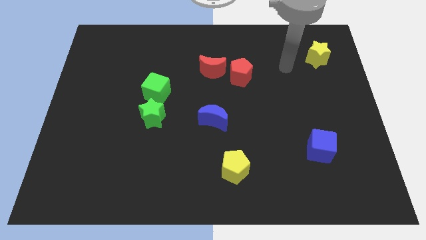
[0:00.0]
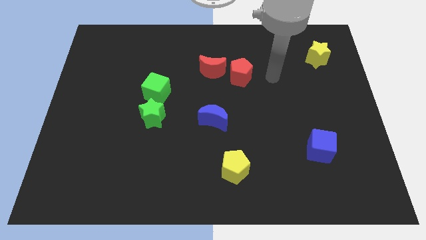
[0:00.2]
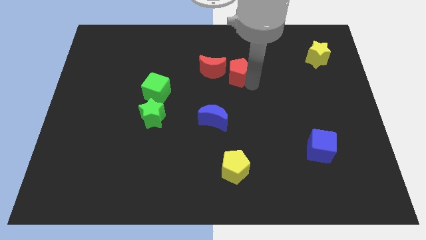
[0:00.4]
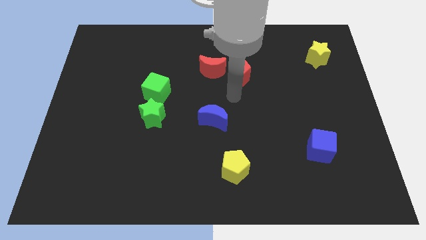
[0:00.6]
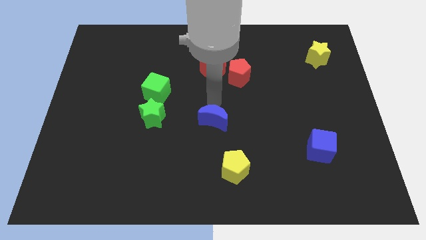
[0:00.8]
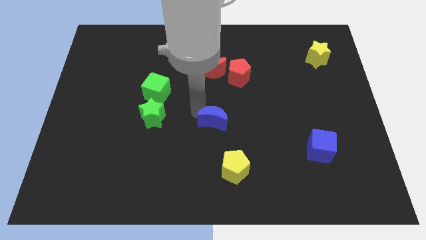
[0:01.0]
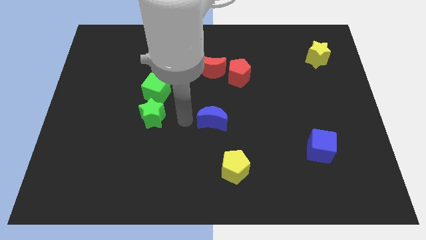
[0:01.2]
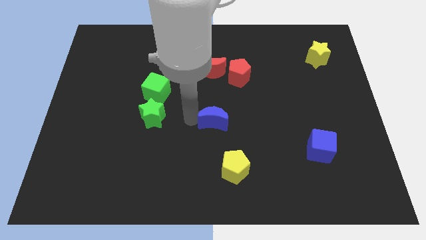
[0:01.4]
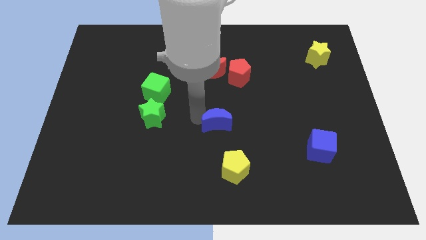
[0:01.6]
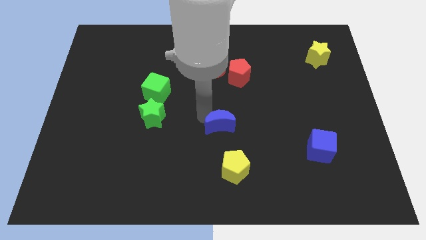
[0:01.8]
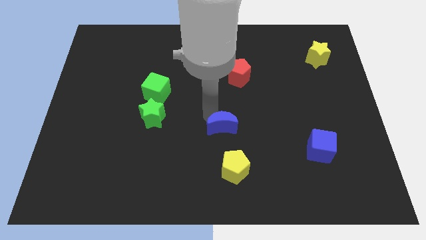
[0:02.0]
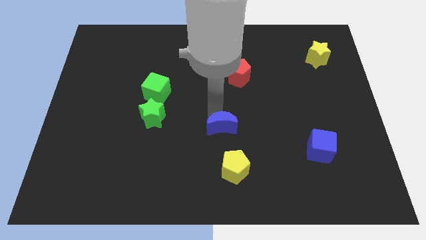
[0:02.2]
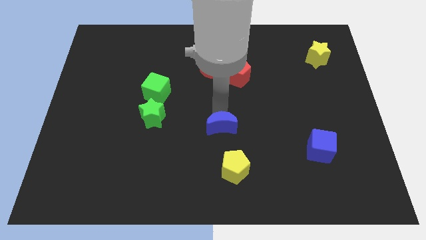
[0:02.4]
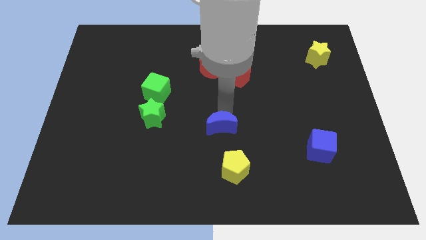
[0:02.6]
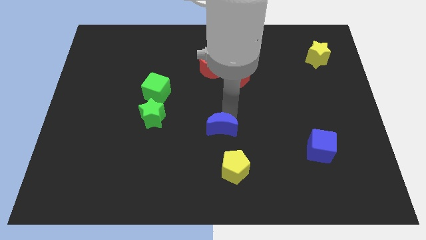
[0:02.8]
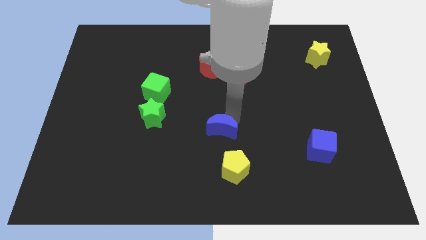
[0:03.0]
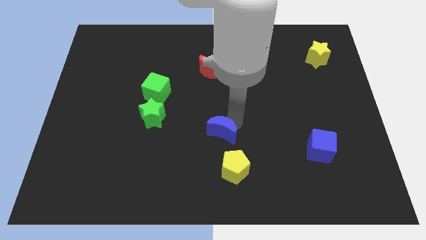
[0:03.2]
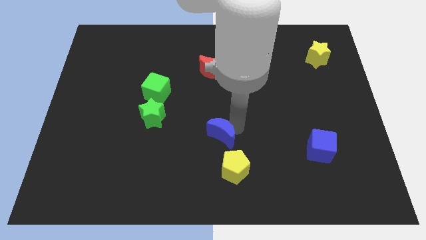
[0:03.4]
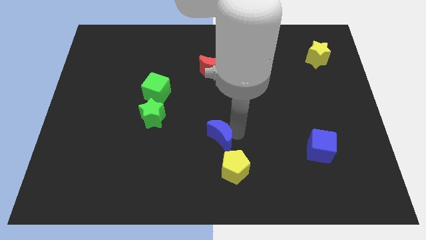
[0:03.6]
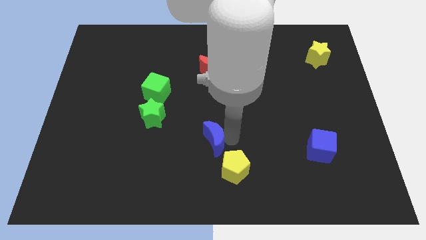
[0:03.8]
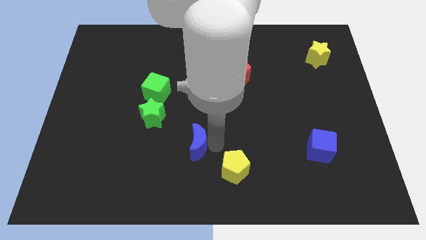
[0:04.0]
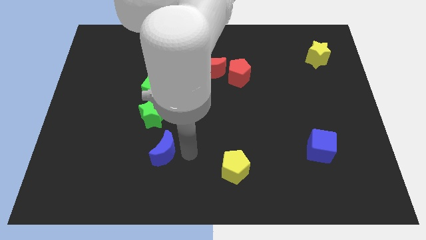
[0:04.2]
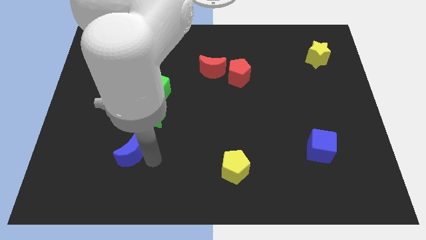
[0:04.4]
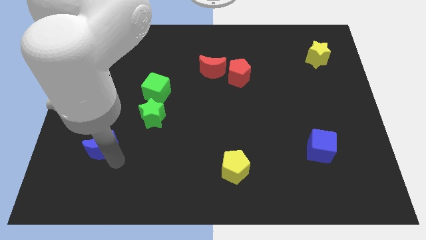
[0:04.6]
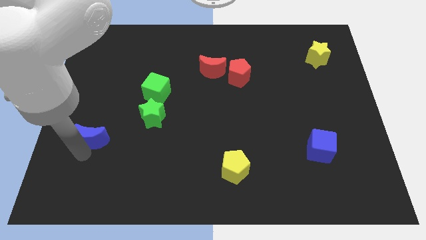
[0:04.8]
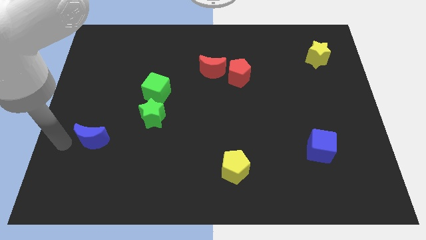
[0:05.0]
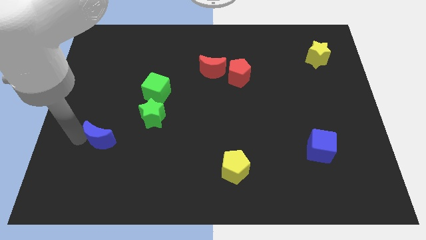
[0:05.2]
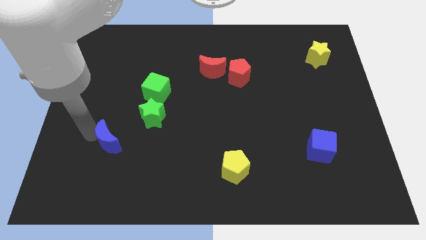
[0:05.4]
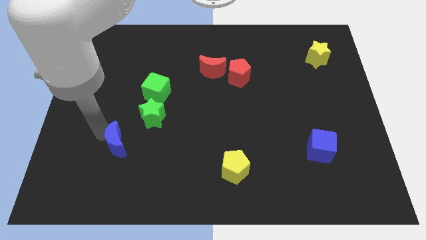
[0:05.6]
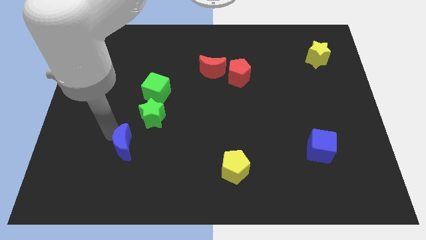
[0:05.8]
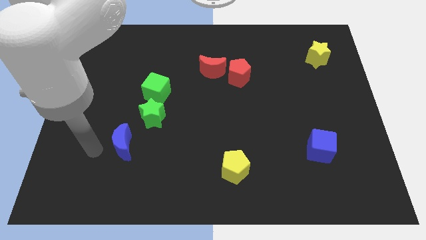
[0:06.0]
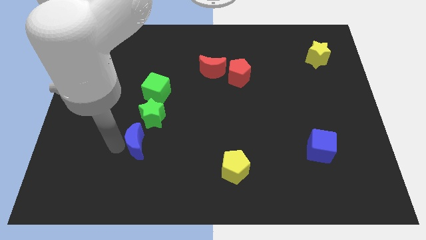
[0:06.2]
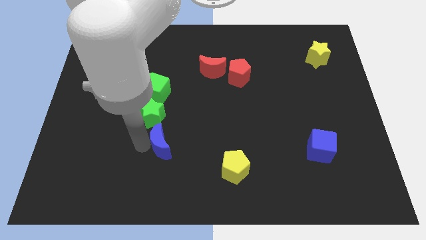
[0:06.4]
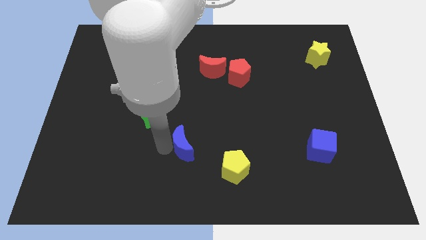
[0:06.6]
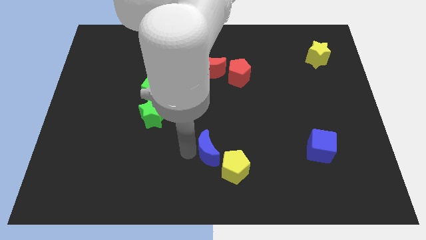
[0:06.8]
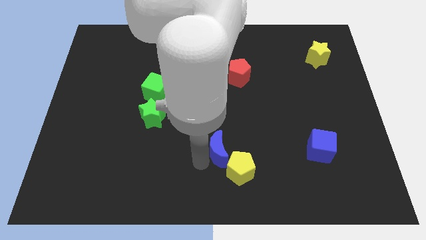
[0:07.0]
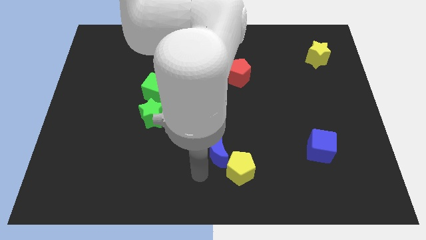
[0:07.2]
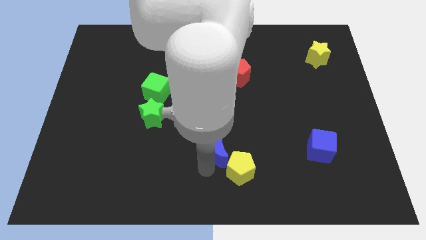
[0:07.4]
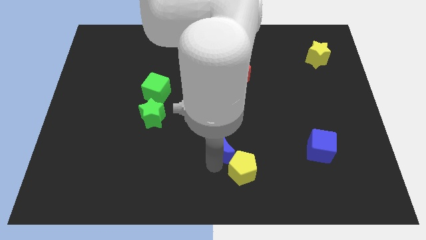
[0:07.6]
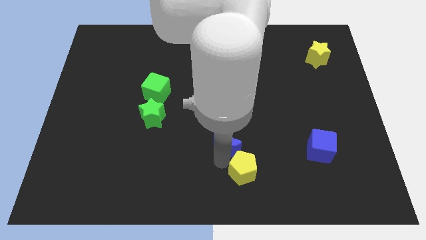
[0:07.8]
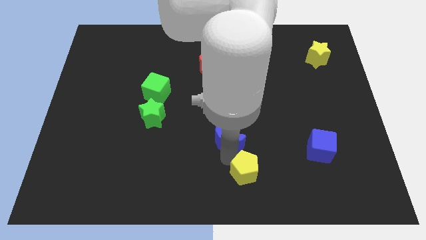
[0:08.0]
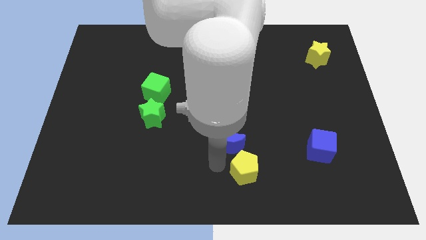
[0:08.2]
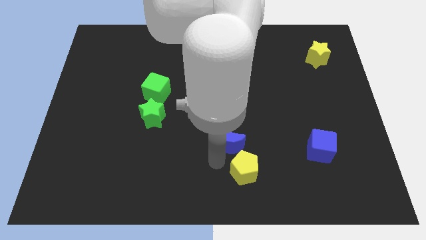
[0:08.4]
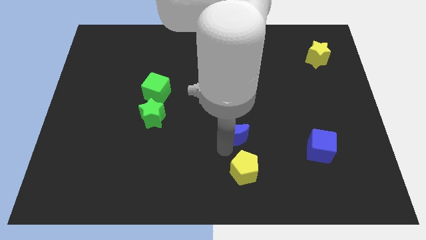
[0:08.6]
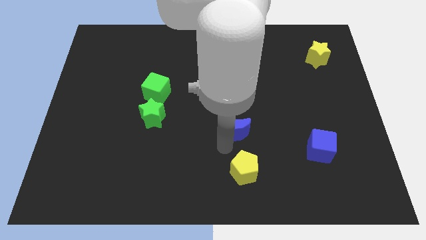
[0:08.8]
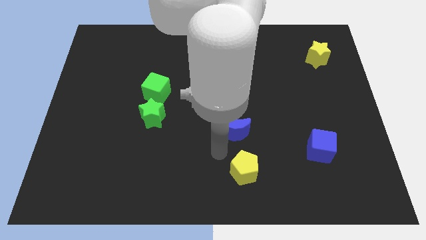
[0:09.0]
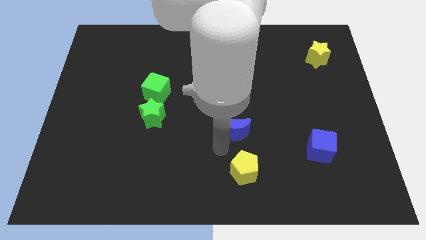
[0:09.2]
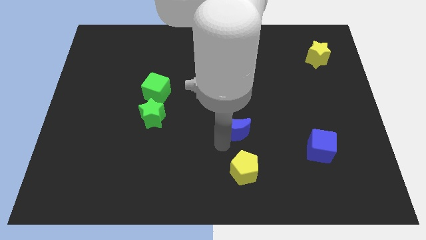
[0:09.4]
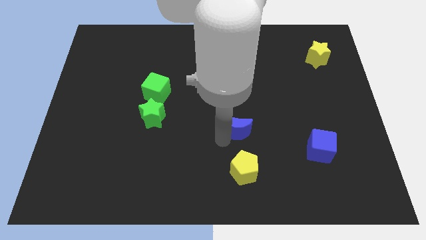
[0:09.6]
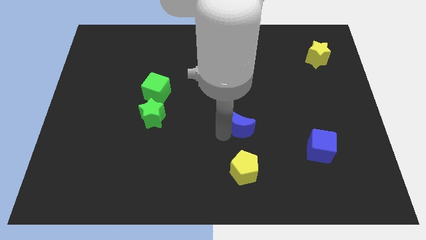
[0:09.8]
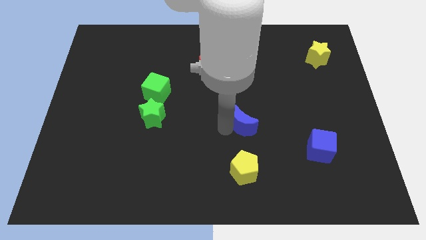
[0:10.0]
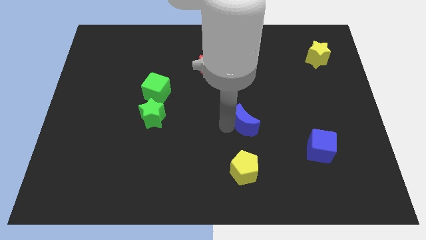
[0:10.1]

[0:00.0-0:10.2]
slightly move the blue moon right

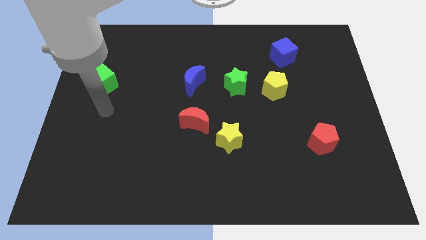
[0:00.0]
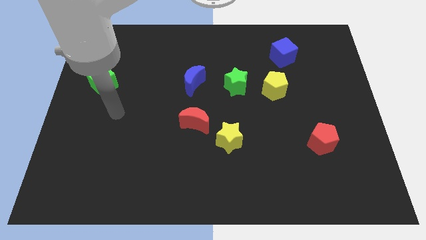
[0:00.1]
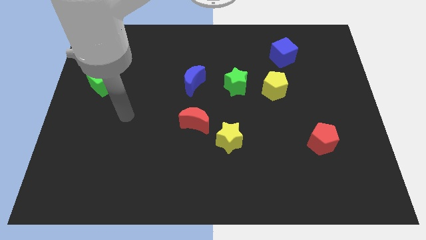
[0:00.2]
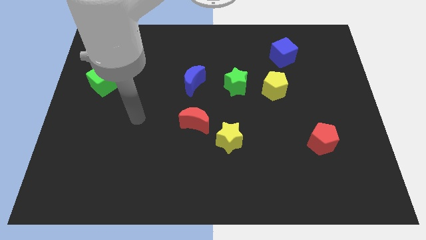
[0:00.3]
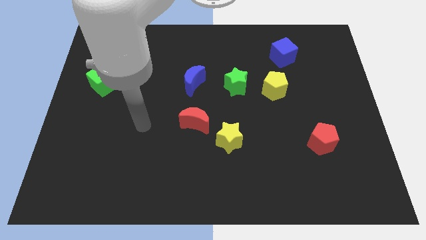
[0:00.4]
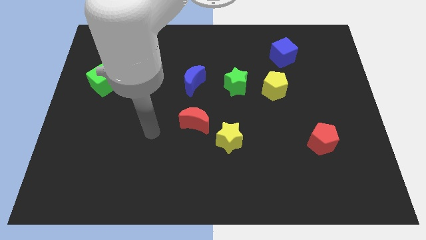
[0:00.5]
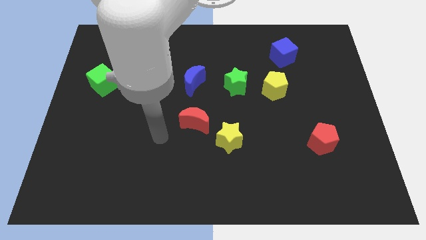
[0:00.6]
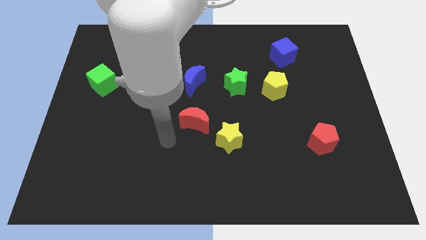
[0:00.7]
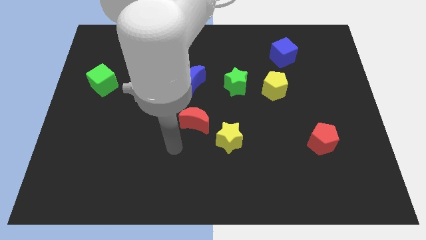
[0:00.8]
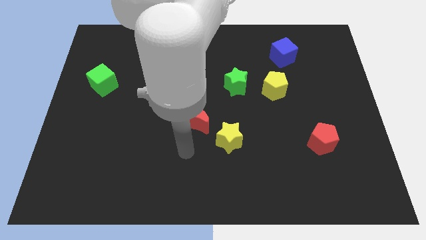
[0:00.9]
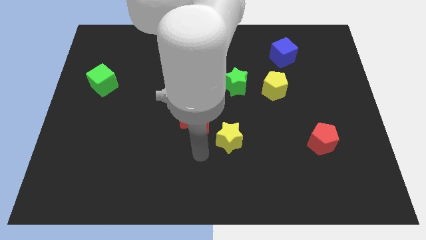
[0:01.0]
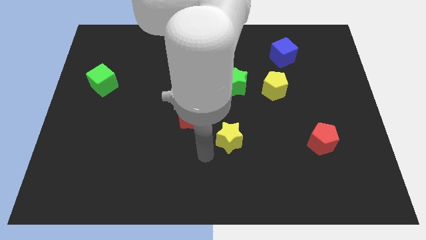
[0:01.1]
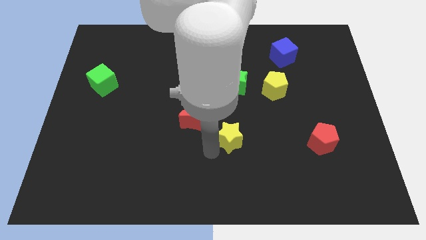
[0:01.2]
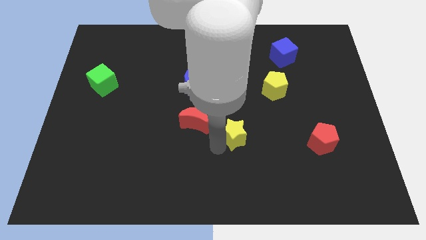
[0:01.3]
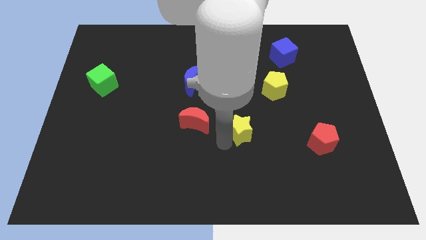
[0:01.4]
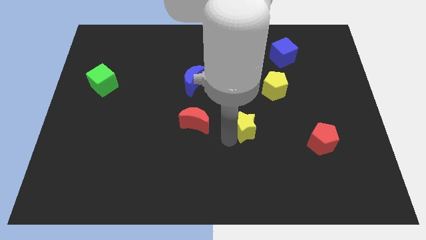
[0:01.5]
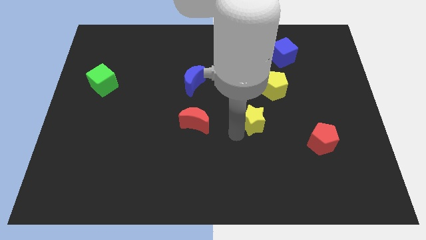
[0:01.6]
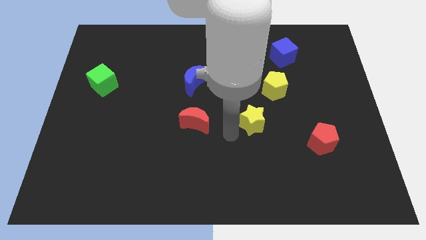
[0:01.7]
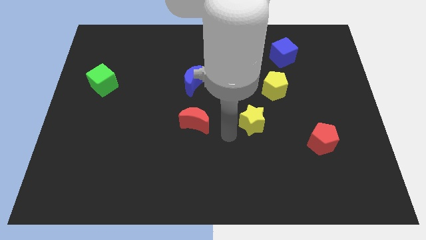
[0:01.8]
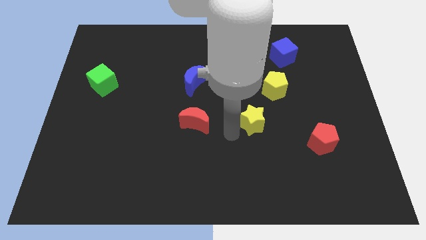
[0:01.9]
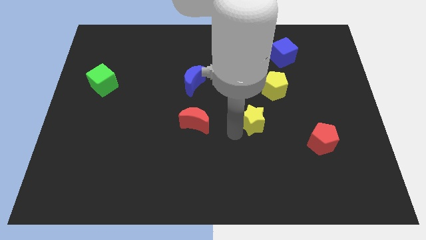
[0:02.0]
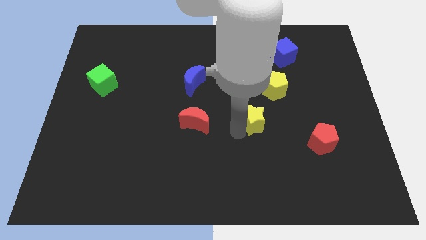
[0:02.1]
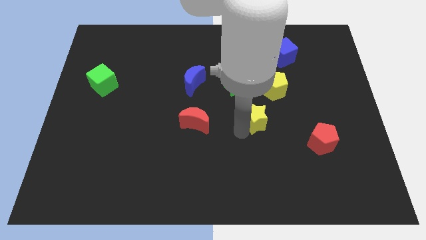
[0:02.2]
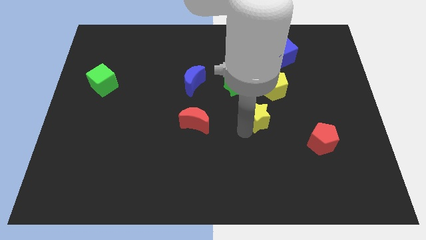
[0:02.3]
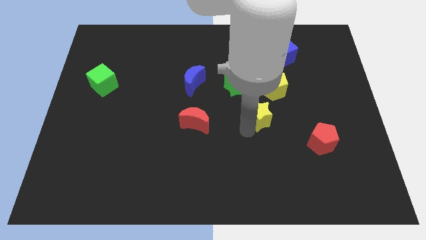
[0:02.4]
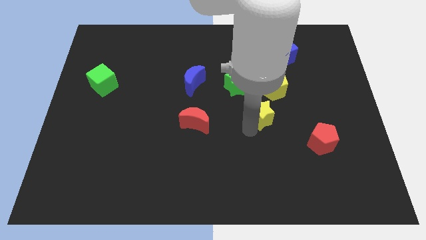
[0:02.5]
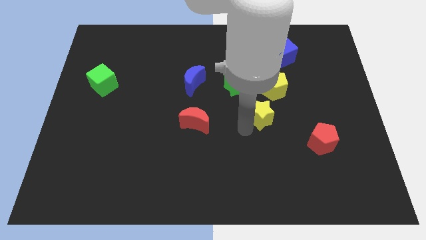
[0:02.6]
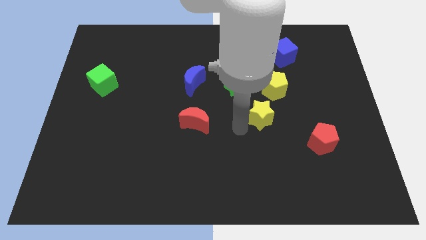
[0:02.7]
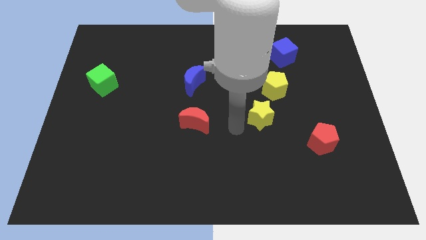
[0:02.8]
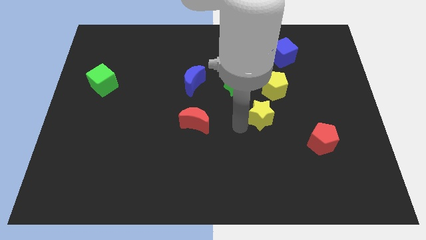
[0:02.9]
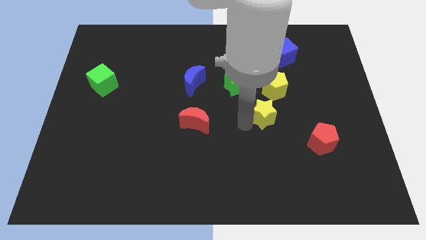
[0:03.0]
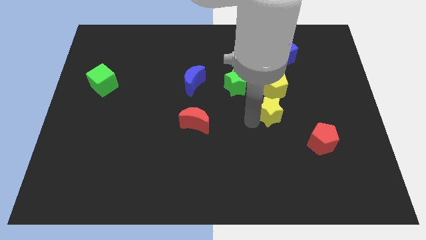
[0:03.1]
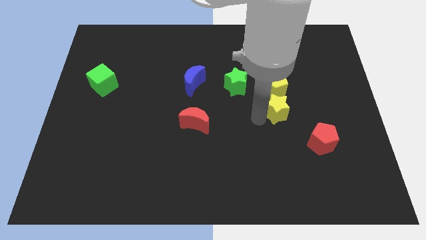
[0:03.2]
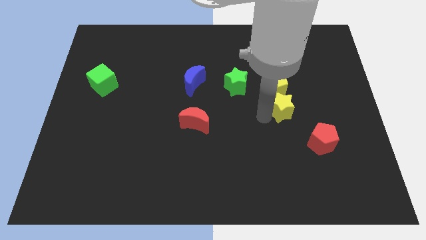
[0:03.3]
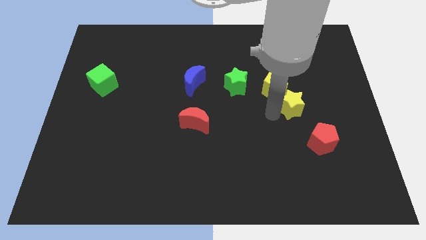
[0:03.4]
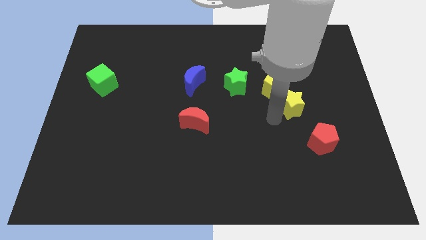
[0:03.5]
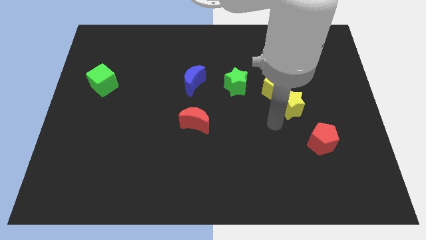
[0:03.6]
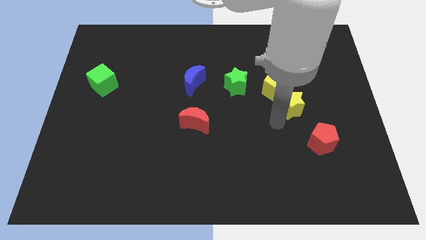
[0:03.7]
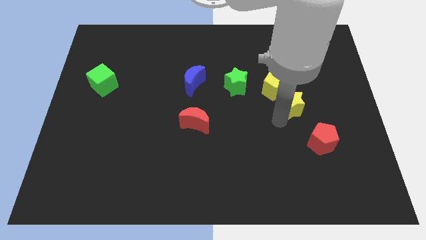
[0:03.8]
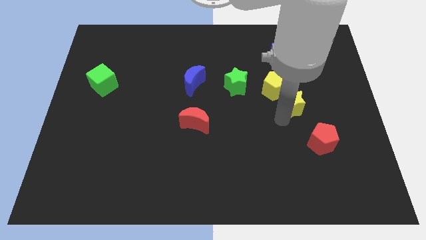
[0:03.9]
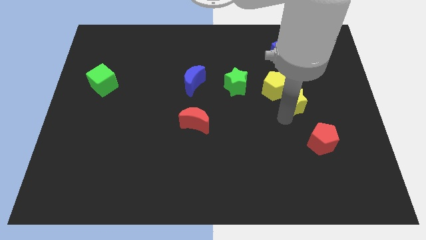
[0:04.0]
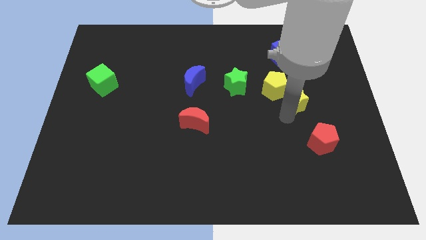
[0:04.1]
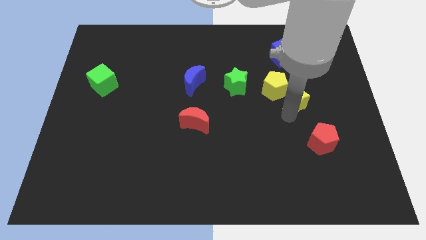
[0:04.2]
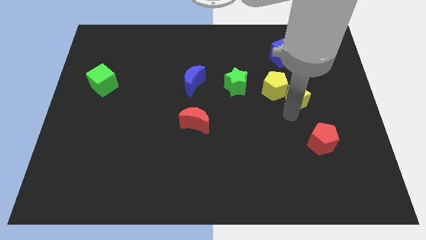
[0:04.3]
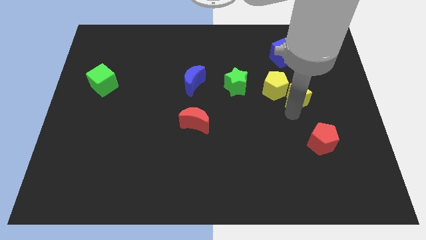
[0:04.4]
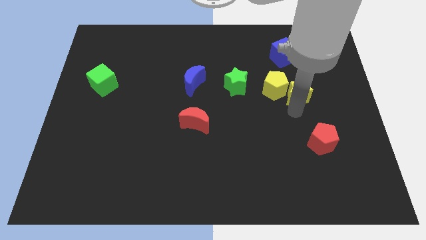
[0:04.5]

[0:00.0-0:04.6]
slide the yellow star up and then to the right
